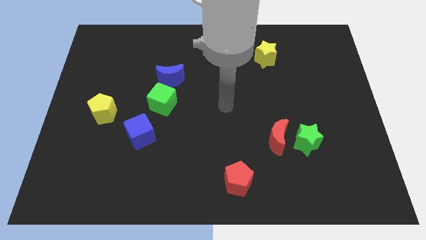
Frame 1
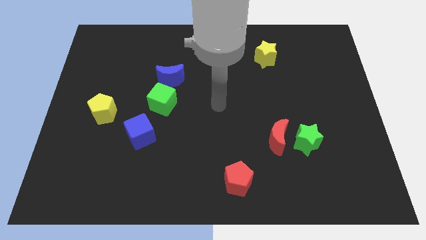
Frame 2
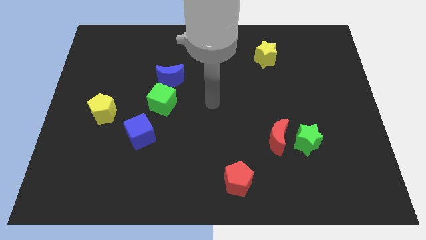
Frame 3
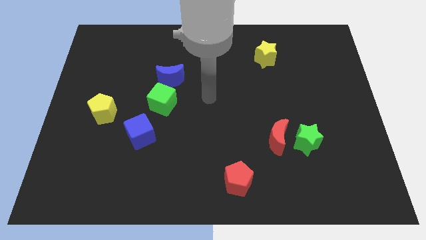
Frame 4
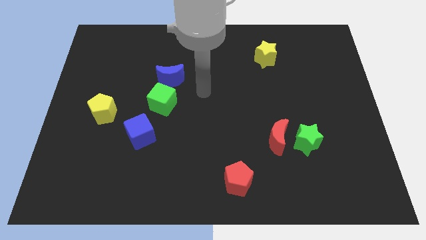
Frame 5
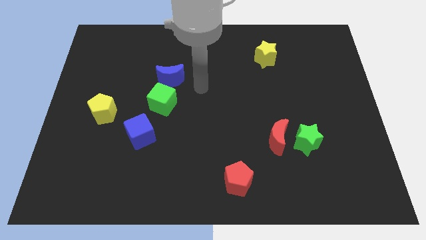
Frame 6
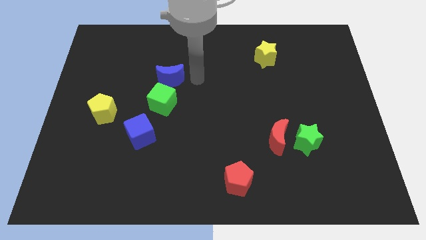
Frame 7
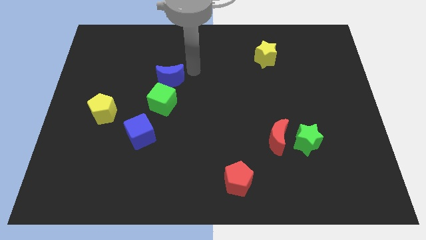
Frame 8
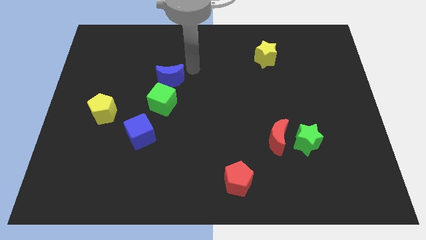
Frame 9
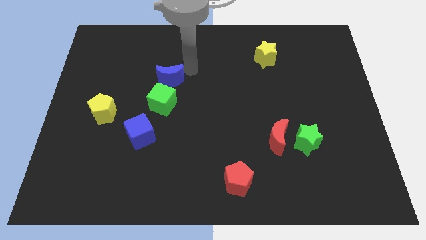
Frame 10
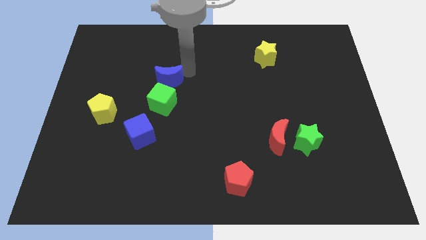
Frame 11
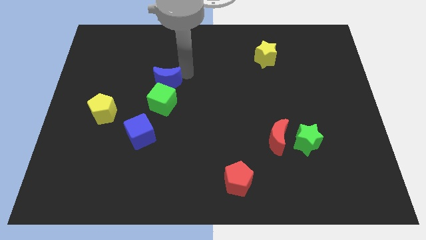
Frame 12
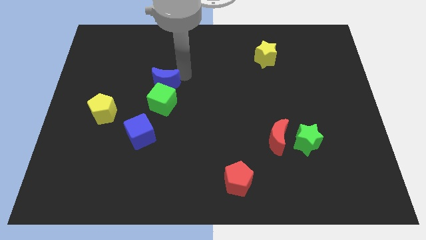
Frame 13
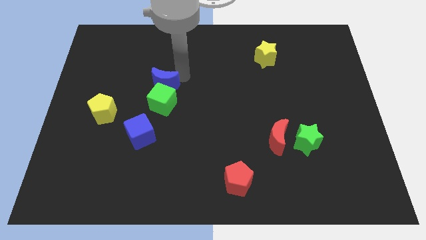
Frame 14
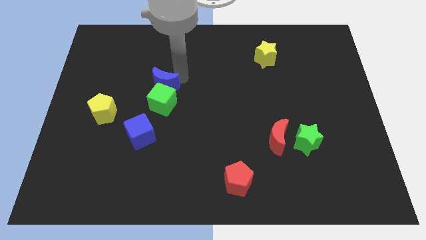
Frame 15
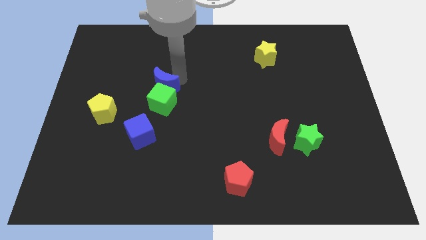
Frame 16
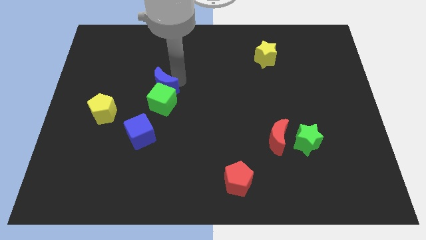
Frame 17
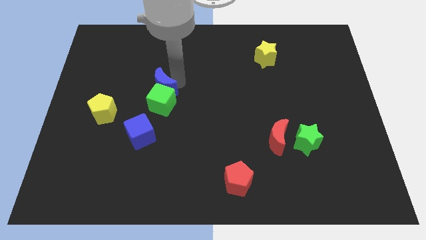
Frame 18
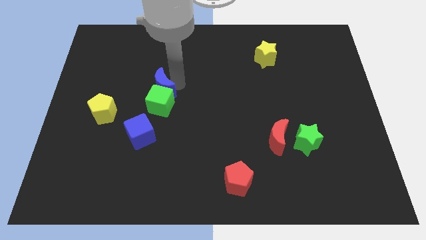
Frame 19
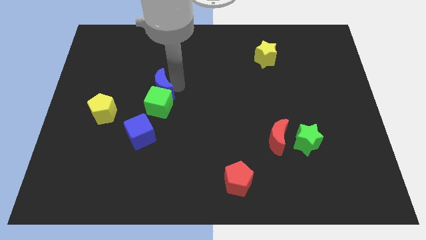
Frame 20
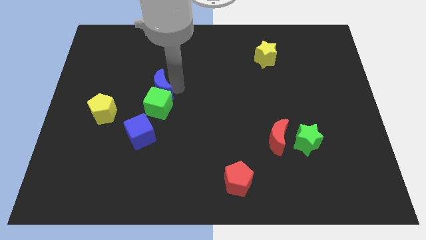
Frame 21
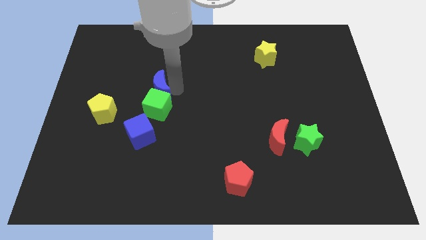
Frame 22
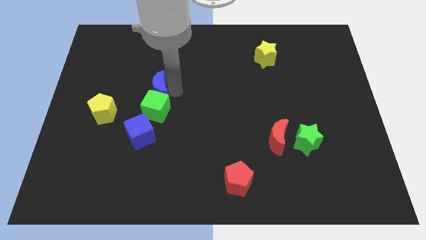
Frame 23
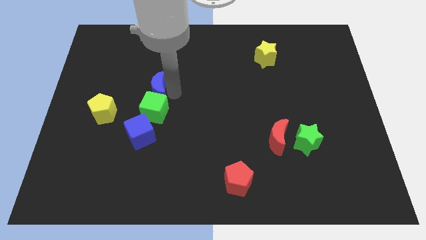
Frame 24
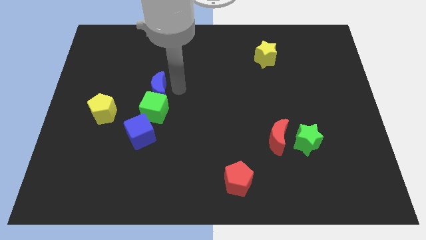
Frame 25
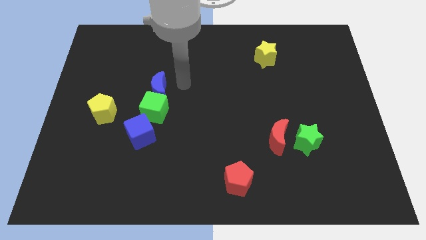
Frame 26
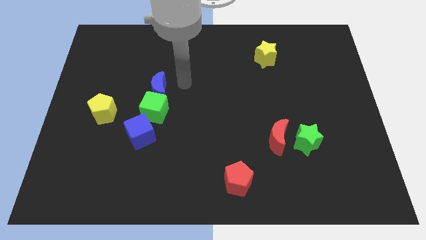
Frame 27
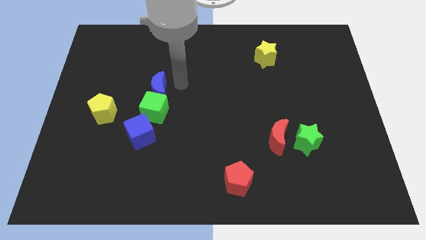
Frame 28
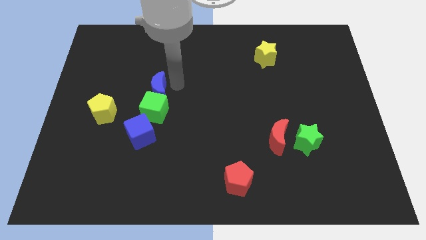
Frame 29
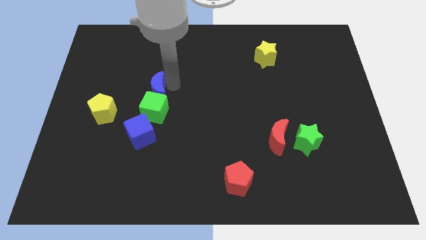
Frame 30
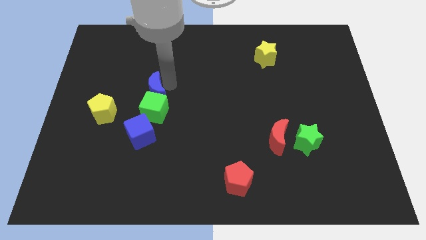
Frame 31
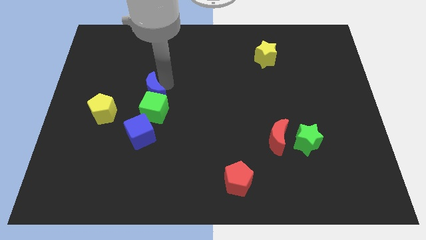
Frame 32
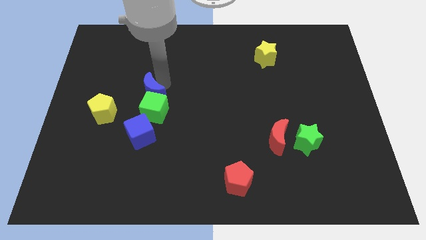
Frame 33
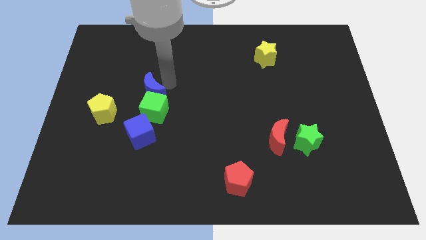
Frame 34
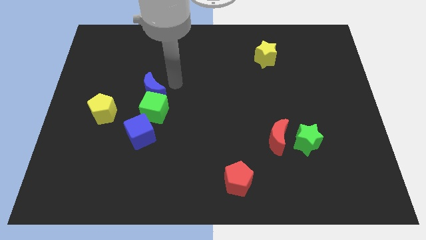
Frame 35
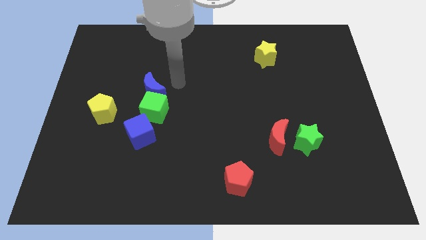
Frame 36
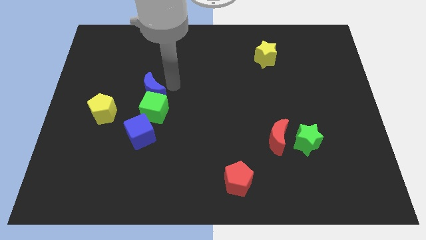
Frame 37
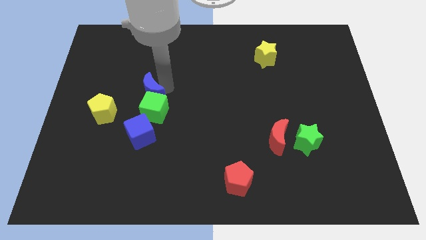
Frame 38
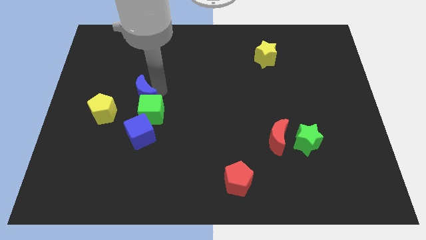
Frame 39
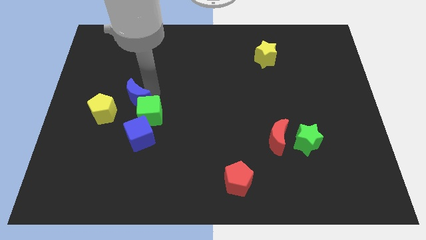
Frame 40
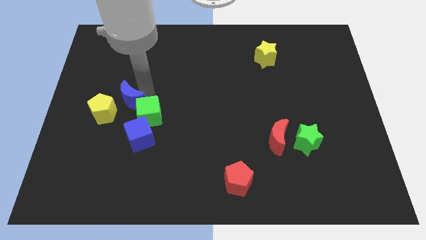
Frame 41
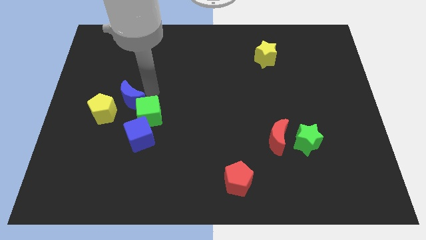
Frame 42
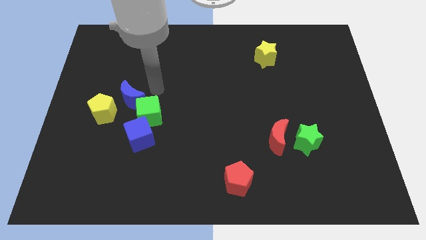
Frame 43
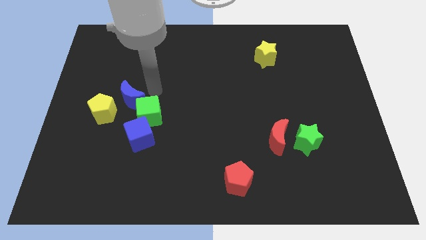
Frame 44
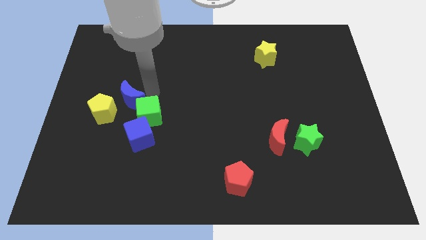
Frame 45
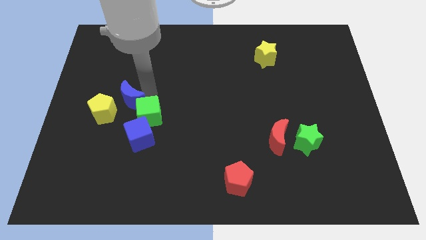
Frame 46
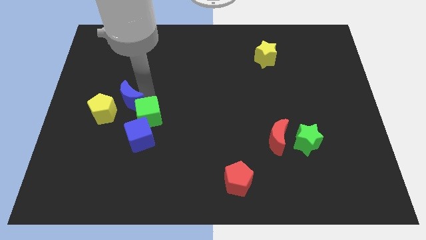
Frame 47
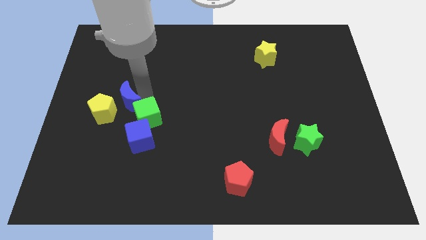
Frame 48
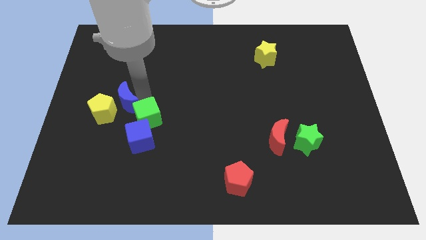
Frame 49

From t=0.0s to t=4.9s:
push the blue moon towards the yellow pentagon

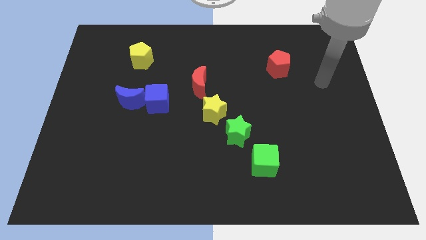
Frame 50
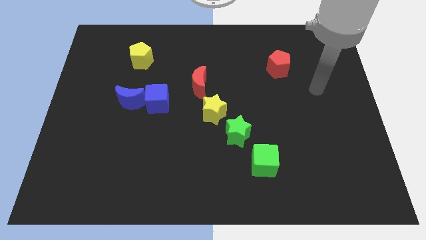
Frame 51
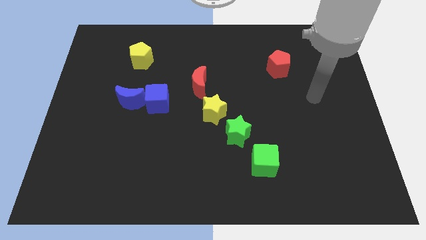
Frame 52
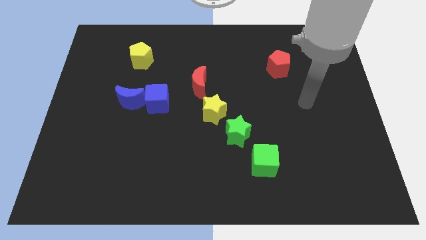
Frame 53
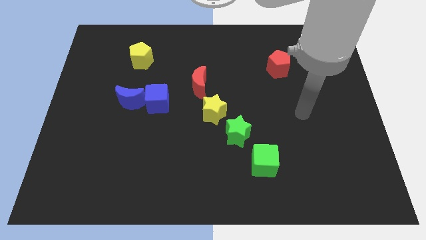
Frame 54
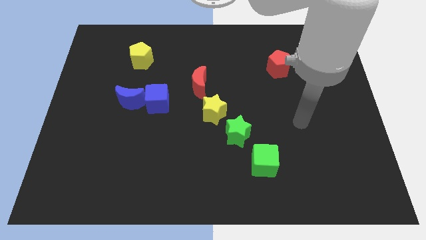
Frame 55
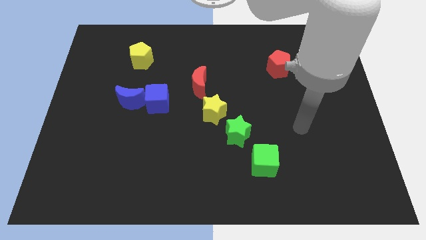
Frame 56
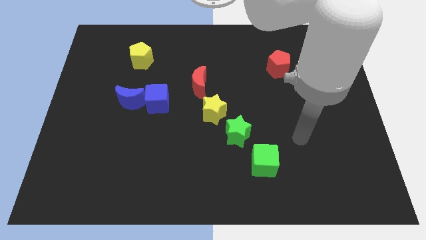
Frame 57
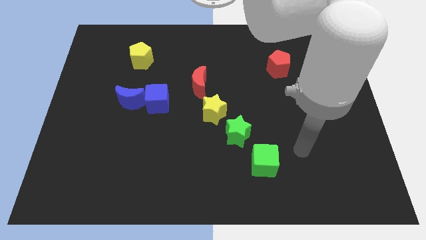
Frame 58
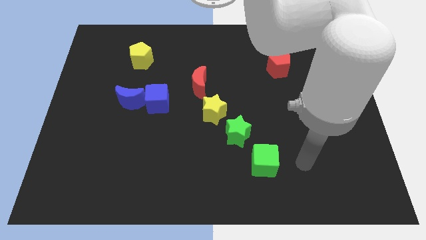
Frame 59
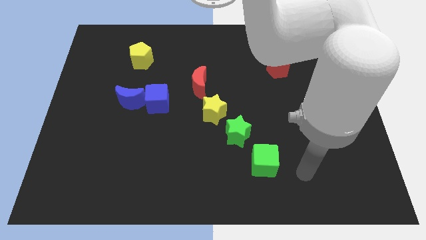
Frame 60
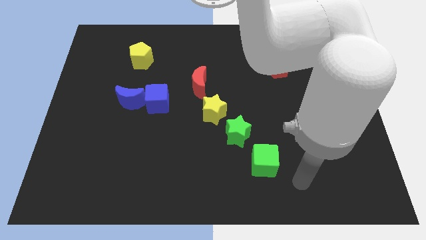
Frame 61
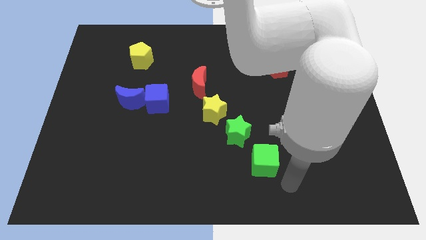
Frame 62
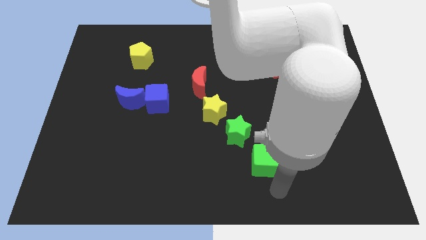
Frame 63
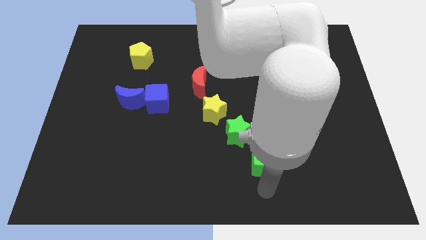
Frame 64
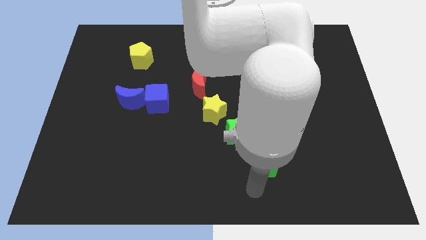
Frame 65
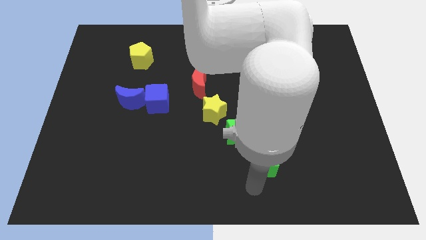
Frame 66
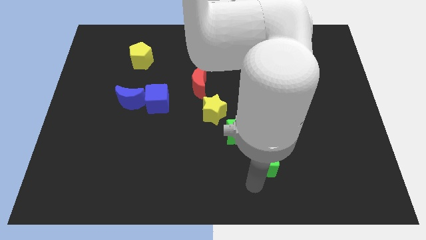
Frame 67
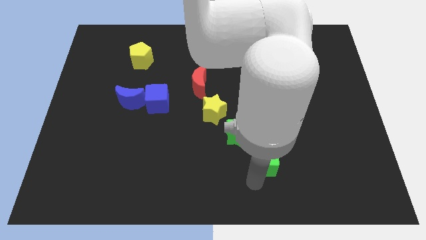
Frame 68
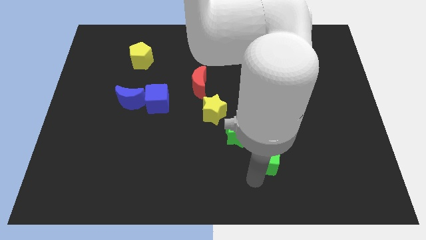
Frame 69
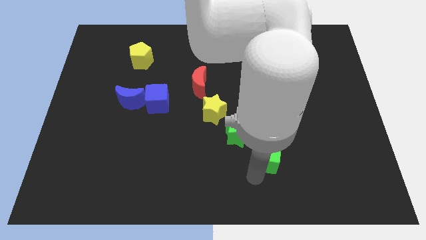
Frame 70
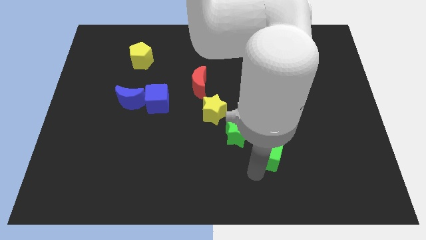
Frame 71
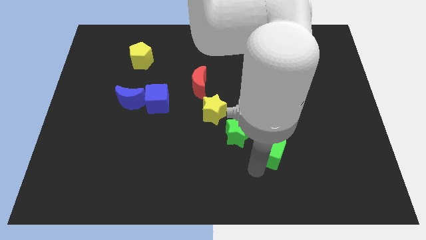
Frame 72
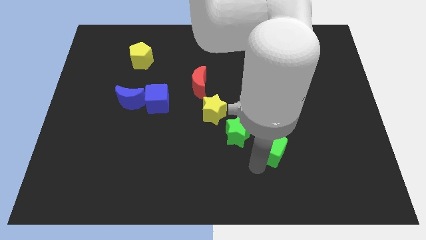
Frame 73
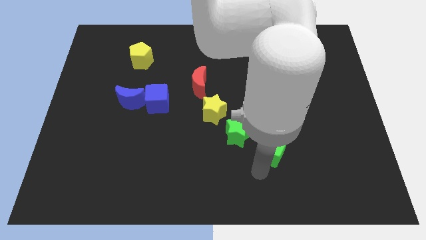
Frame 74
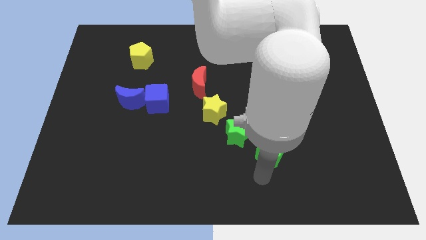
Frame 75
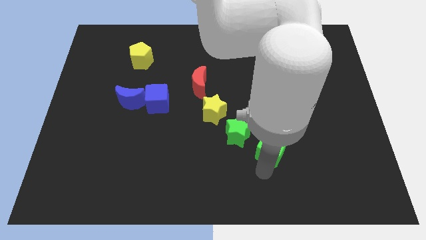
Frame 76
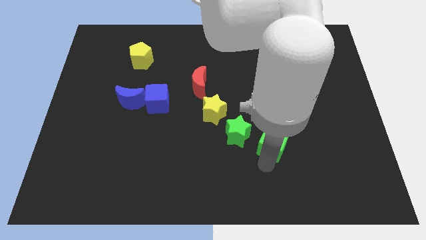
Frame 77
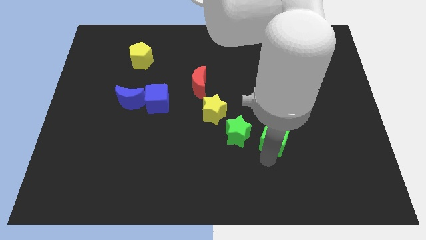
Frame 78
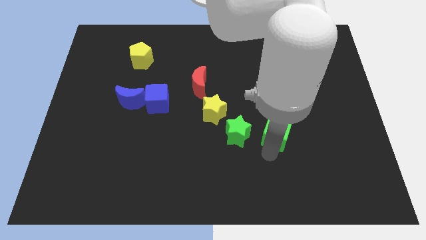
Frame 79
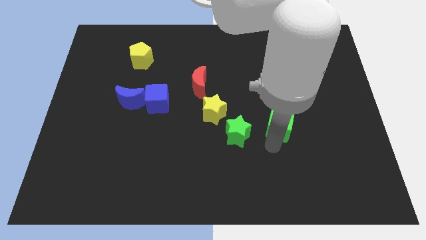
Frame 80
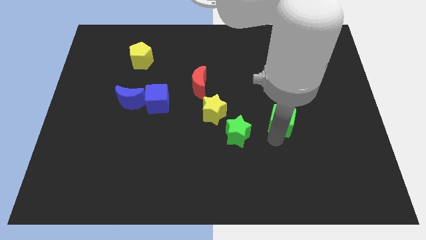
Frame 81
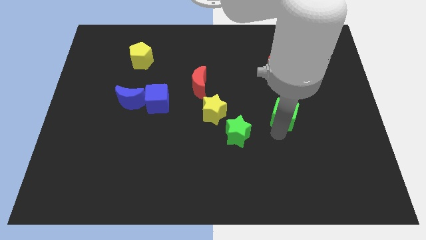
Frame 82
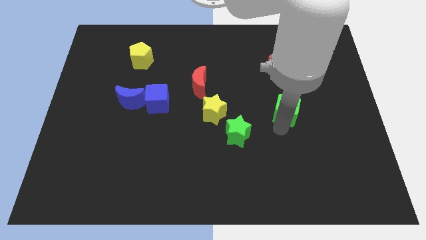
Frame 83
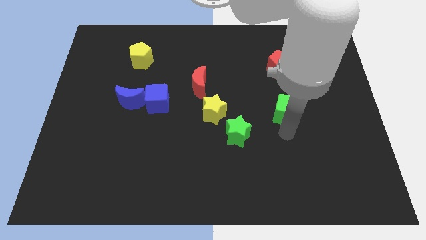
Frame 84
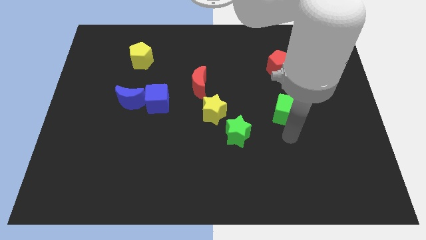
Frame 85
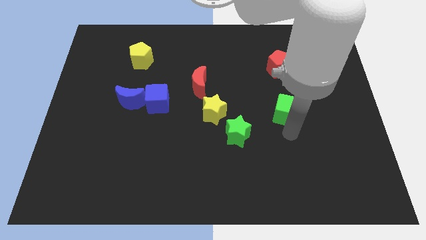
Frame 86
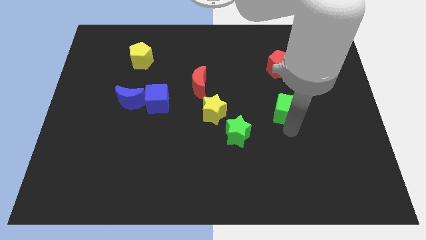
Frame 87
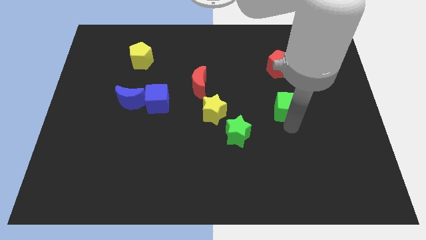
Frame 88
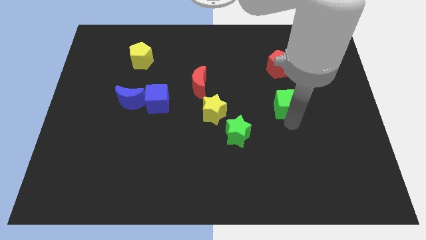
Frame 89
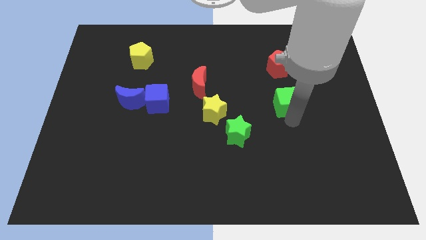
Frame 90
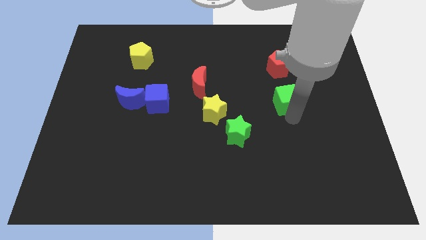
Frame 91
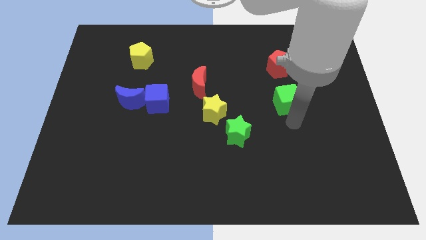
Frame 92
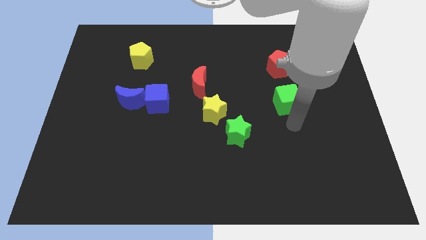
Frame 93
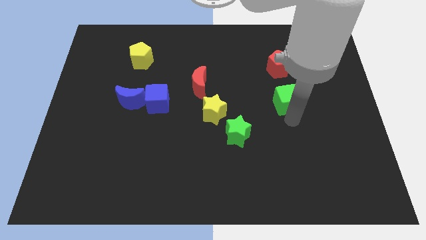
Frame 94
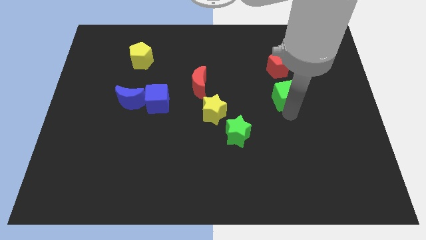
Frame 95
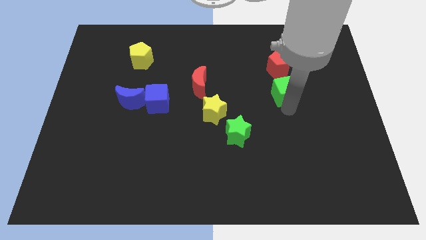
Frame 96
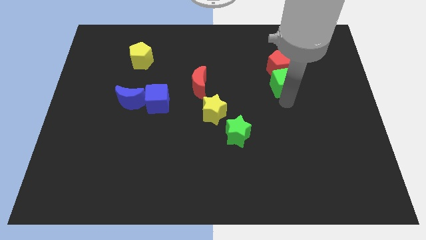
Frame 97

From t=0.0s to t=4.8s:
slide the green cube to the red pentagon
